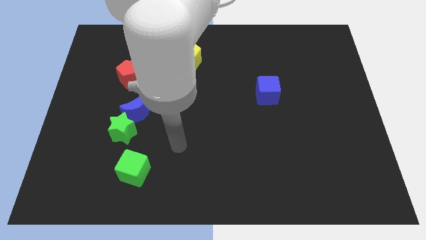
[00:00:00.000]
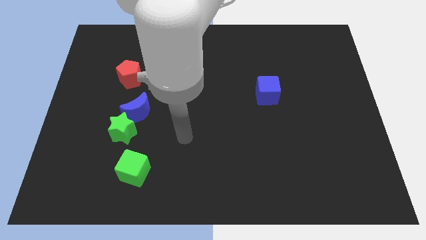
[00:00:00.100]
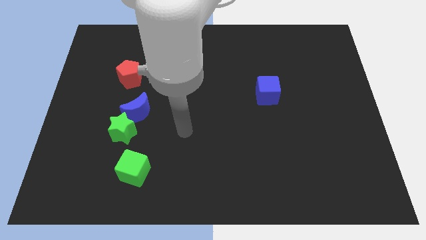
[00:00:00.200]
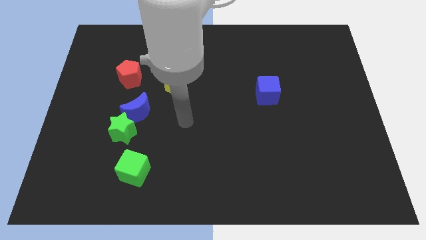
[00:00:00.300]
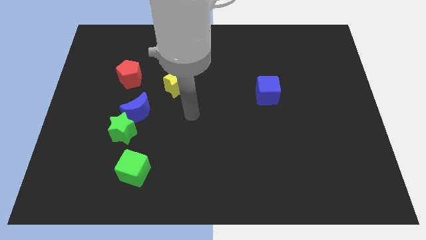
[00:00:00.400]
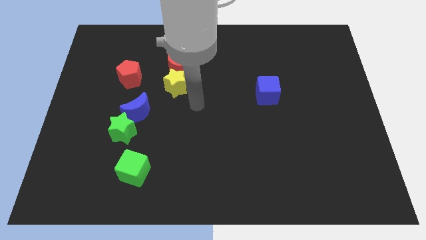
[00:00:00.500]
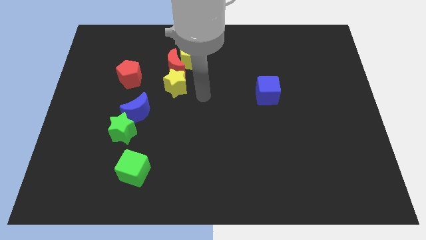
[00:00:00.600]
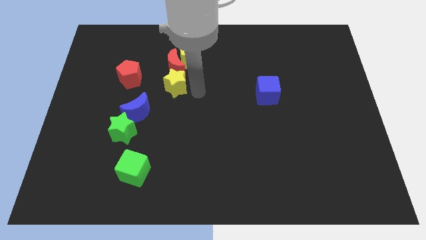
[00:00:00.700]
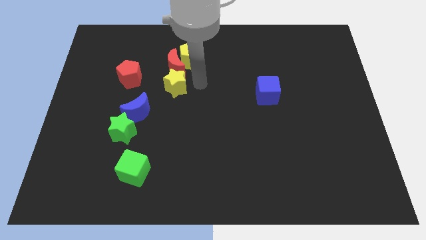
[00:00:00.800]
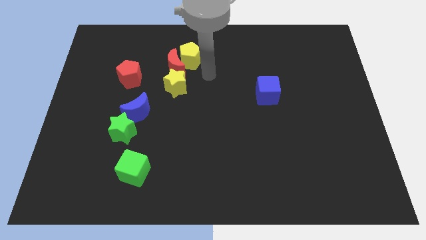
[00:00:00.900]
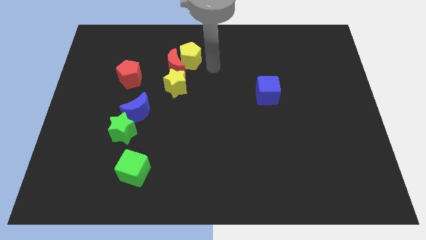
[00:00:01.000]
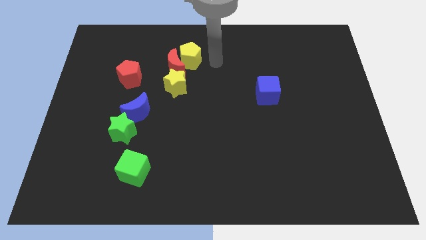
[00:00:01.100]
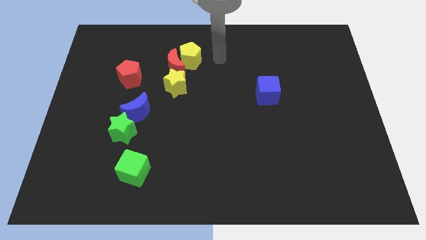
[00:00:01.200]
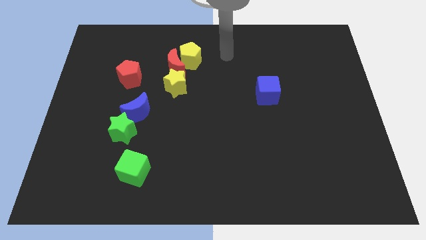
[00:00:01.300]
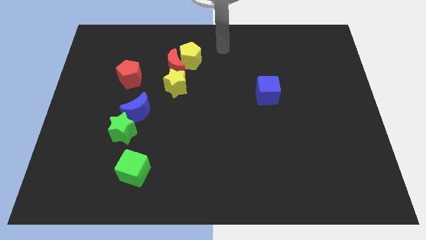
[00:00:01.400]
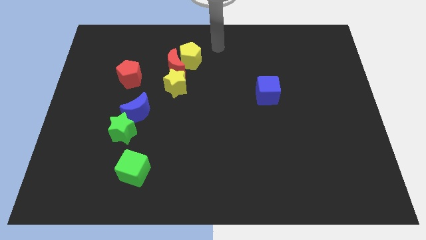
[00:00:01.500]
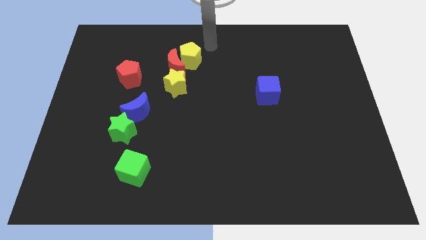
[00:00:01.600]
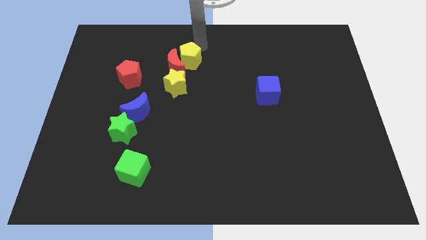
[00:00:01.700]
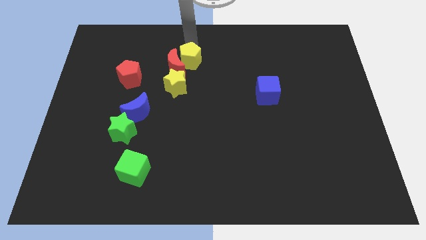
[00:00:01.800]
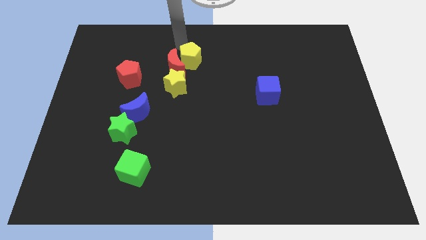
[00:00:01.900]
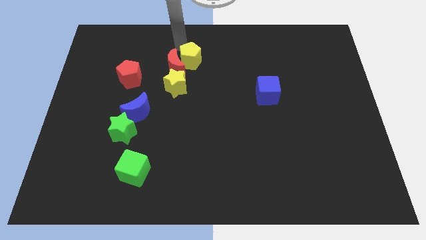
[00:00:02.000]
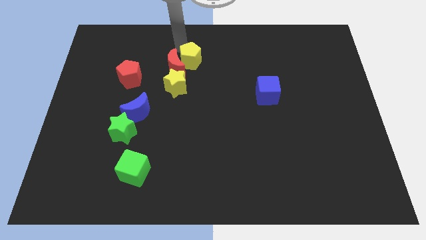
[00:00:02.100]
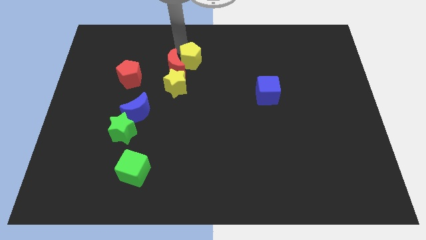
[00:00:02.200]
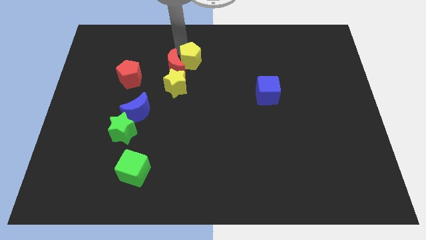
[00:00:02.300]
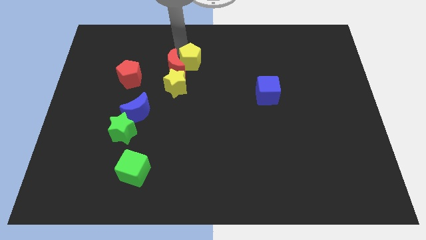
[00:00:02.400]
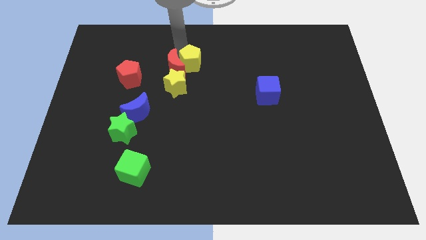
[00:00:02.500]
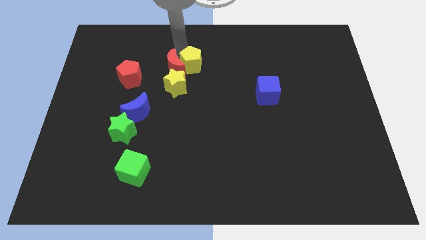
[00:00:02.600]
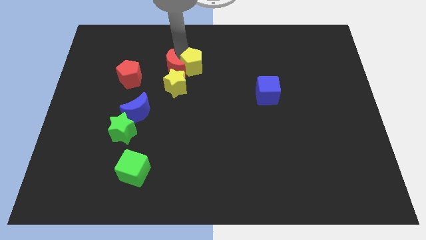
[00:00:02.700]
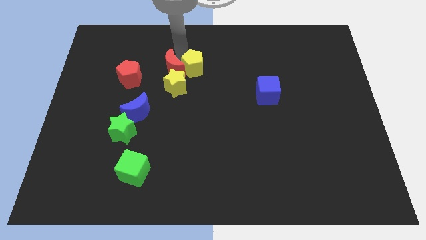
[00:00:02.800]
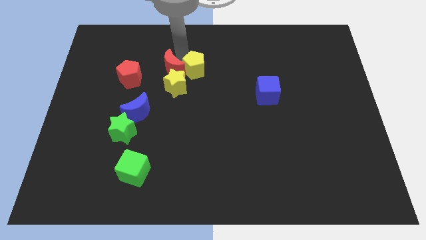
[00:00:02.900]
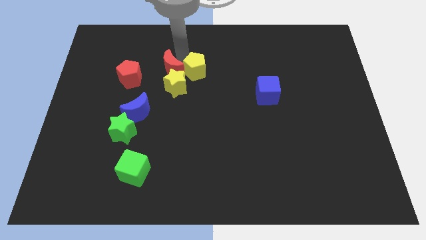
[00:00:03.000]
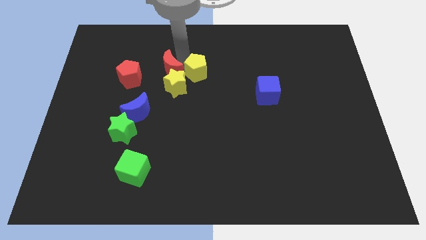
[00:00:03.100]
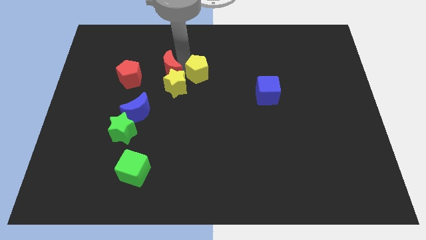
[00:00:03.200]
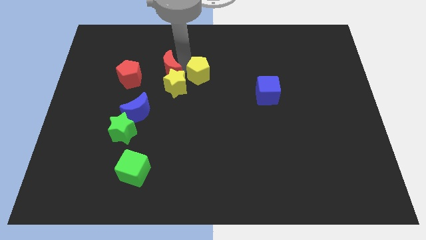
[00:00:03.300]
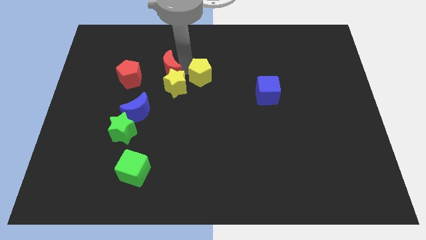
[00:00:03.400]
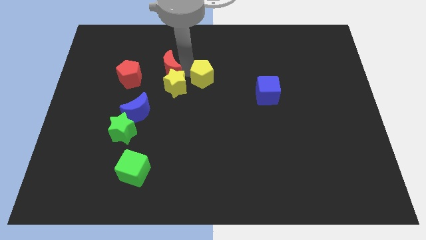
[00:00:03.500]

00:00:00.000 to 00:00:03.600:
push the yellow pentagon down and to the right slightly

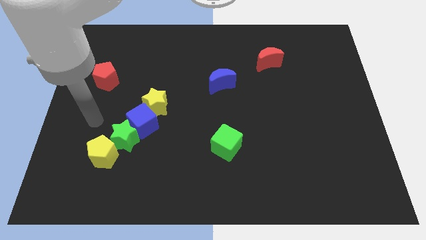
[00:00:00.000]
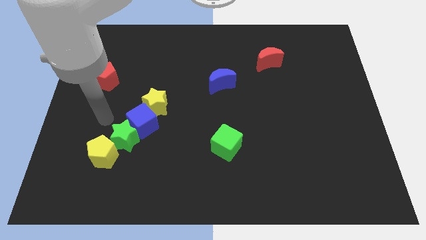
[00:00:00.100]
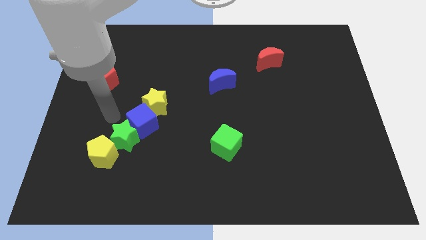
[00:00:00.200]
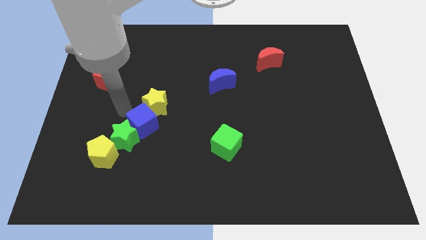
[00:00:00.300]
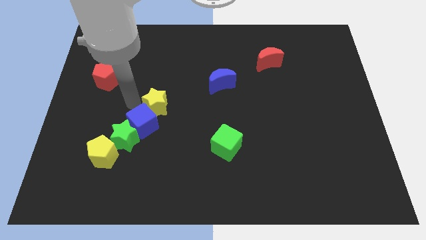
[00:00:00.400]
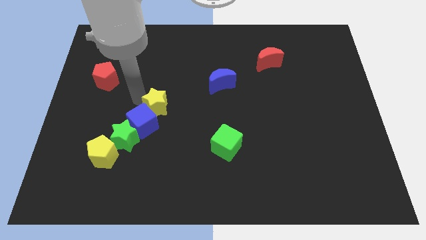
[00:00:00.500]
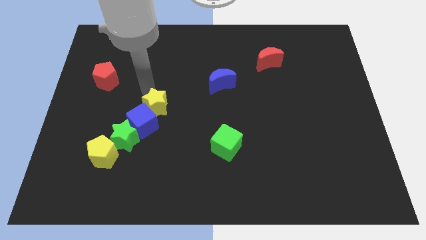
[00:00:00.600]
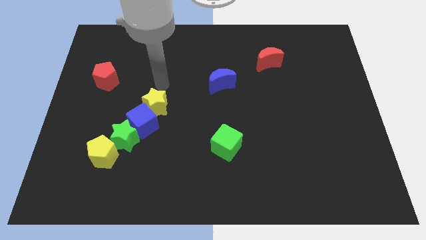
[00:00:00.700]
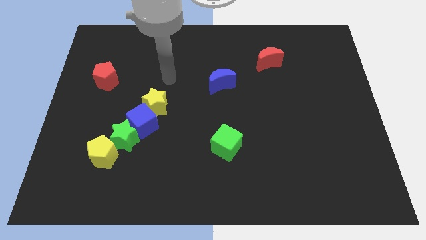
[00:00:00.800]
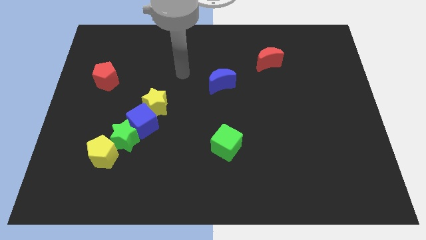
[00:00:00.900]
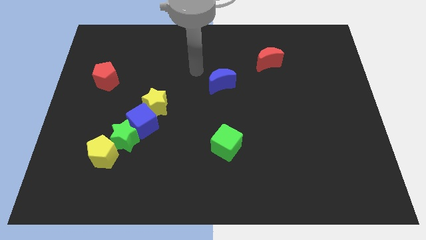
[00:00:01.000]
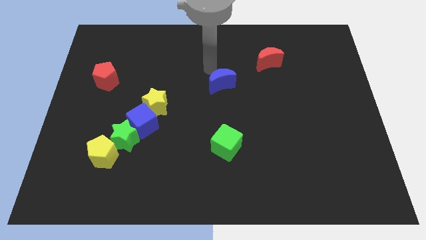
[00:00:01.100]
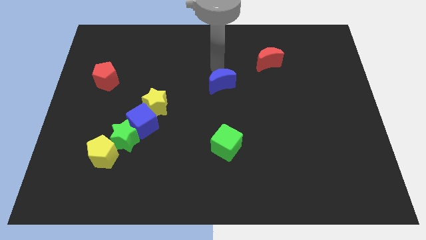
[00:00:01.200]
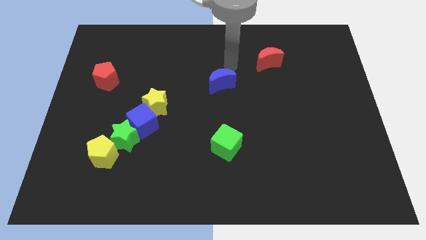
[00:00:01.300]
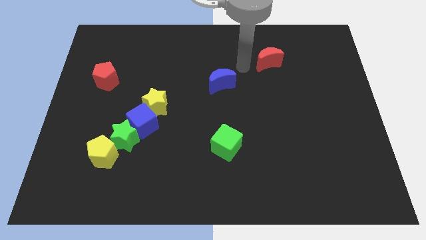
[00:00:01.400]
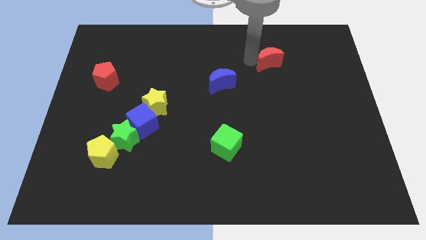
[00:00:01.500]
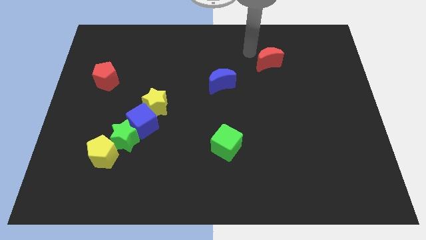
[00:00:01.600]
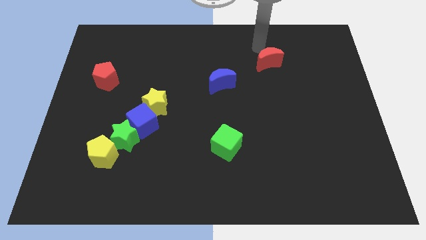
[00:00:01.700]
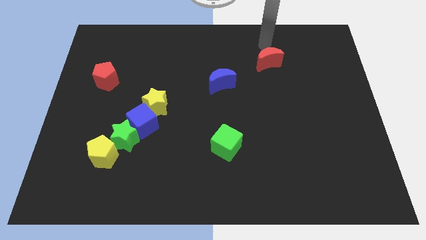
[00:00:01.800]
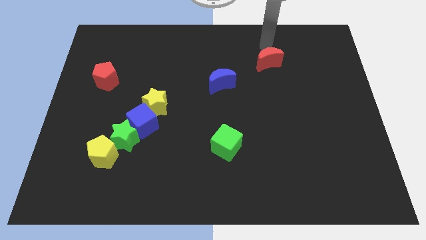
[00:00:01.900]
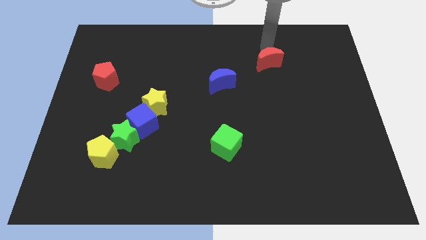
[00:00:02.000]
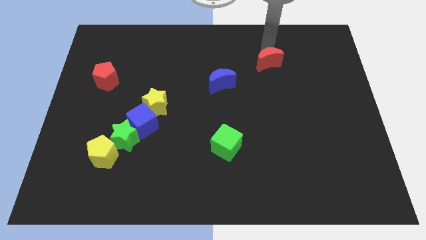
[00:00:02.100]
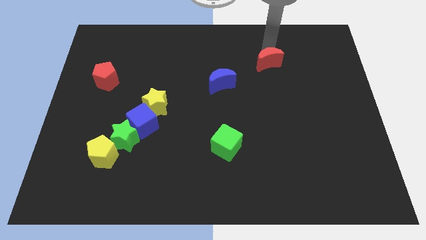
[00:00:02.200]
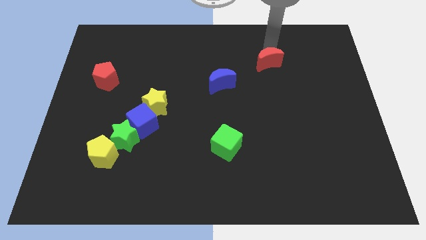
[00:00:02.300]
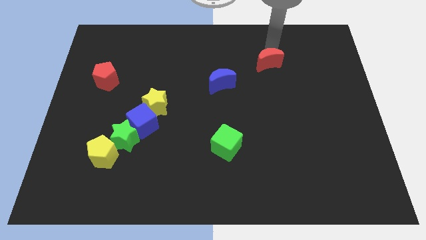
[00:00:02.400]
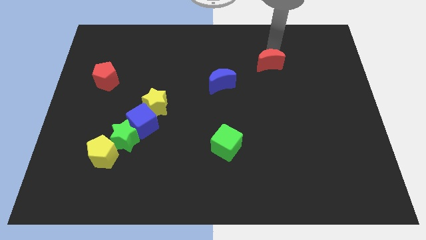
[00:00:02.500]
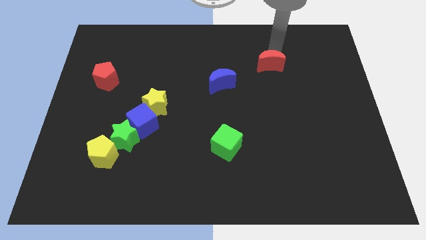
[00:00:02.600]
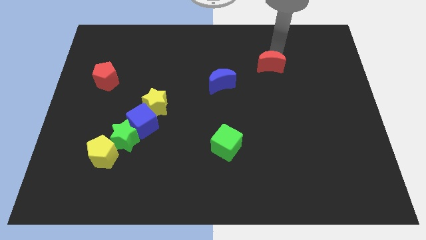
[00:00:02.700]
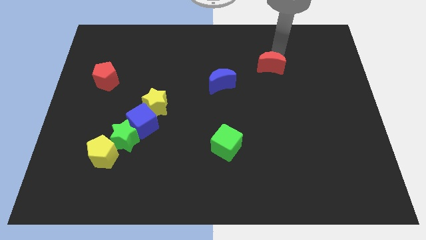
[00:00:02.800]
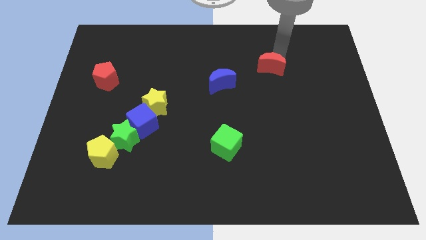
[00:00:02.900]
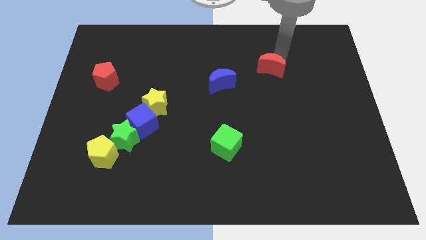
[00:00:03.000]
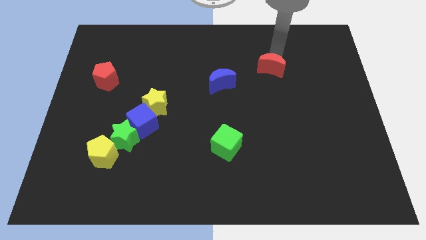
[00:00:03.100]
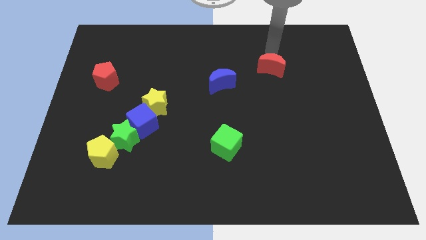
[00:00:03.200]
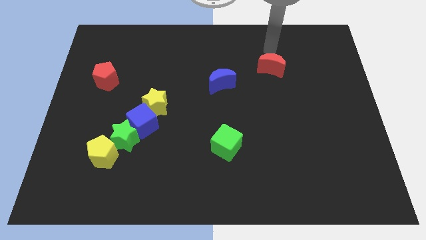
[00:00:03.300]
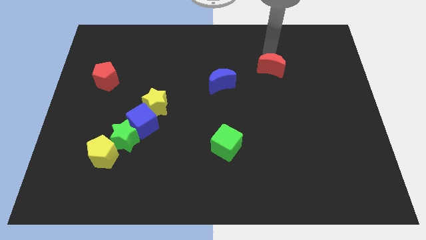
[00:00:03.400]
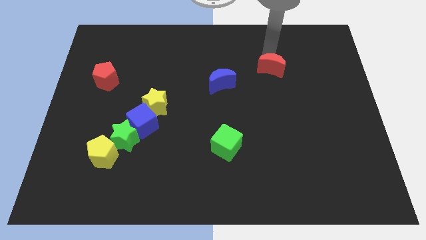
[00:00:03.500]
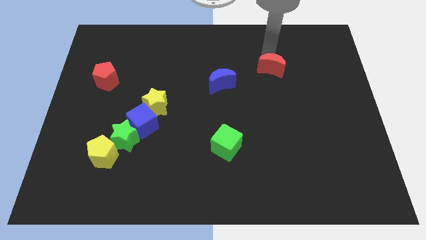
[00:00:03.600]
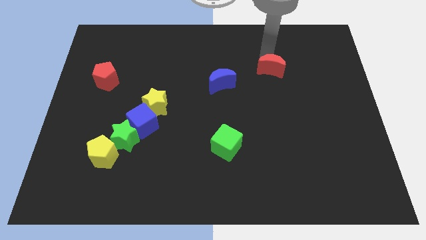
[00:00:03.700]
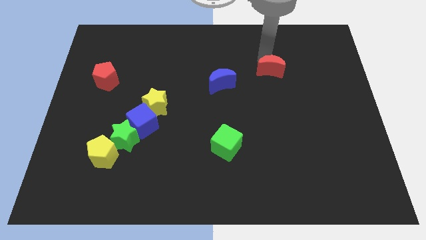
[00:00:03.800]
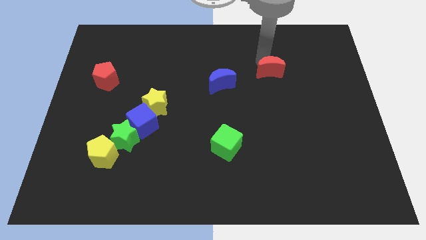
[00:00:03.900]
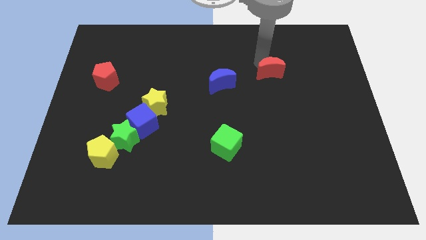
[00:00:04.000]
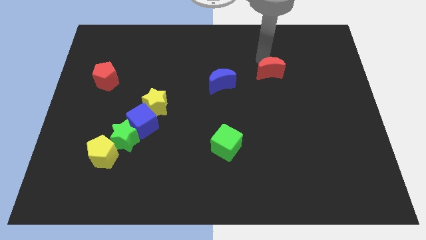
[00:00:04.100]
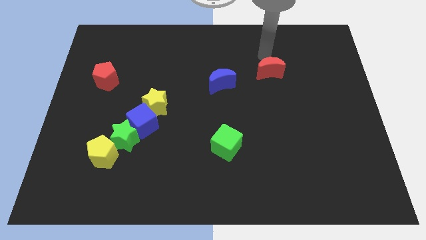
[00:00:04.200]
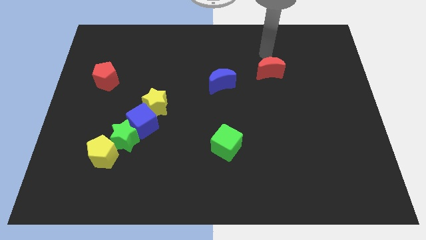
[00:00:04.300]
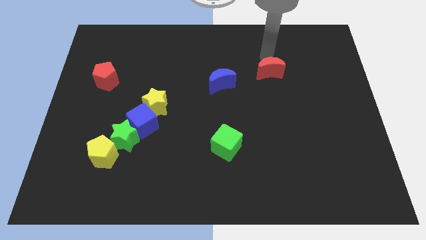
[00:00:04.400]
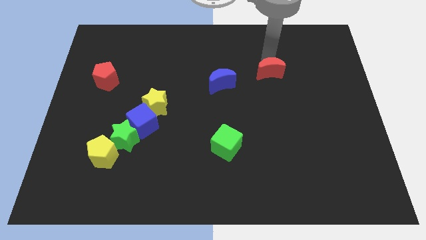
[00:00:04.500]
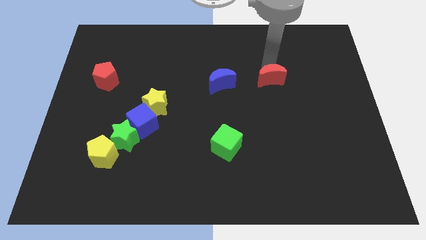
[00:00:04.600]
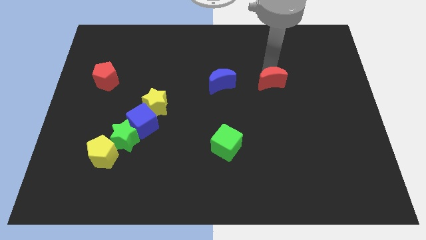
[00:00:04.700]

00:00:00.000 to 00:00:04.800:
slide the red moon somewhat down
